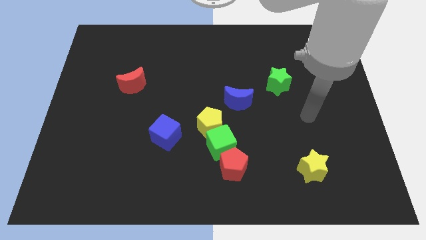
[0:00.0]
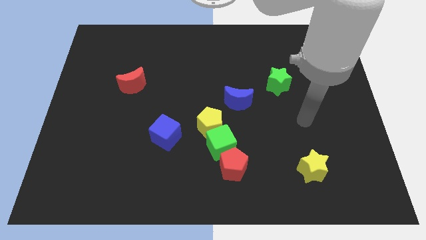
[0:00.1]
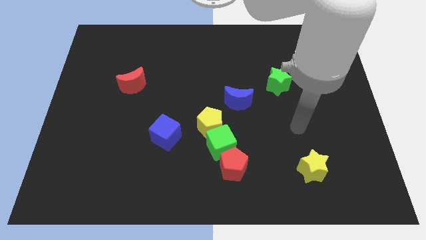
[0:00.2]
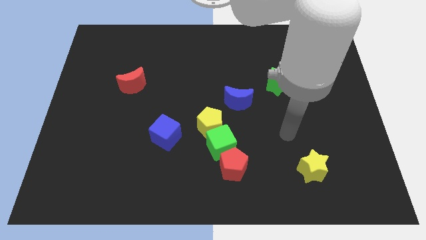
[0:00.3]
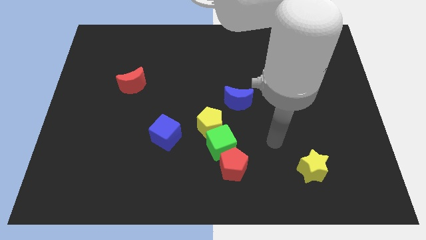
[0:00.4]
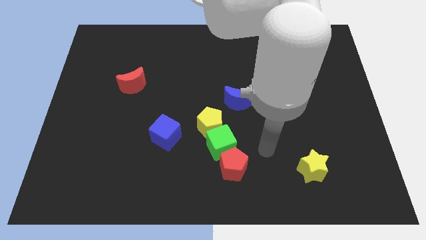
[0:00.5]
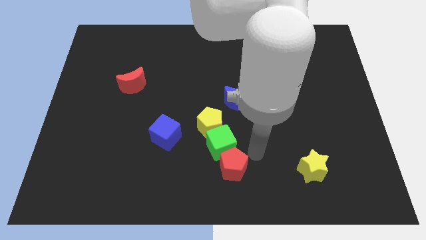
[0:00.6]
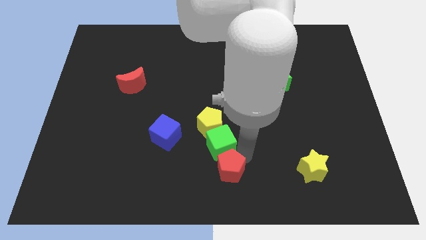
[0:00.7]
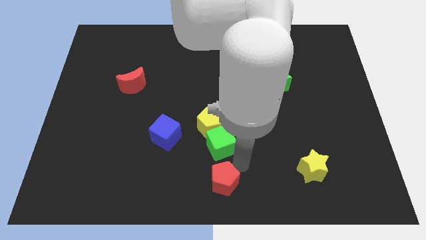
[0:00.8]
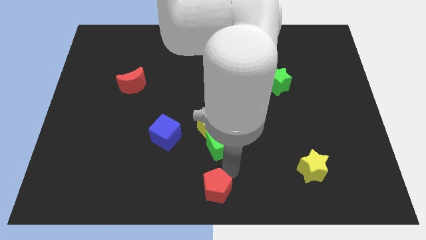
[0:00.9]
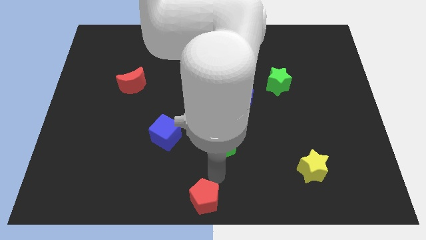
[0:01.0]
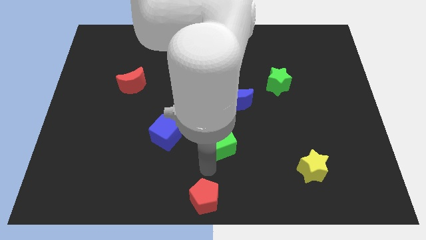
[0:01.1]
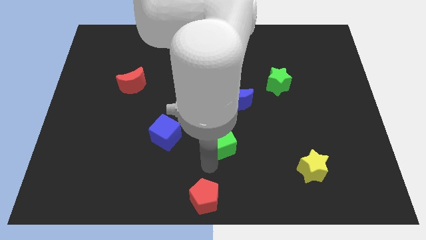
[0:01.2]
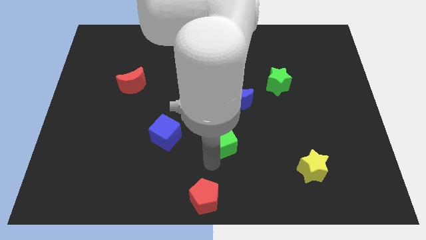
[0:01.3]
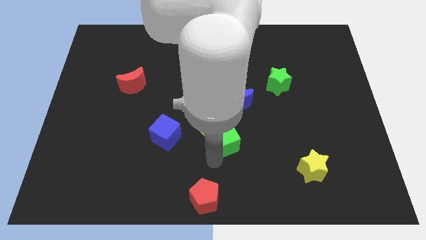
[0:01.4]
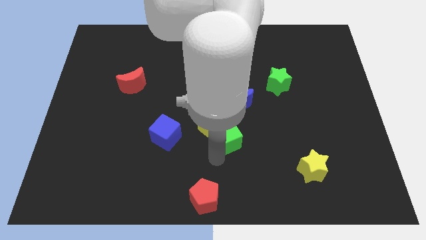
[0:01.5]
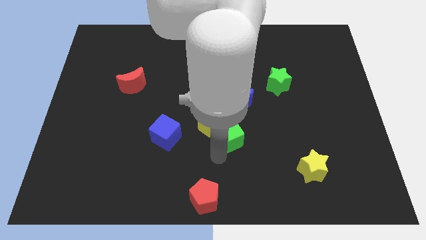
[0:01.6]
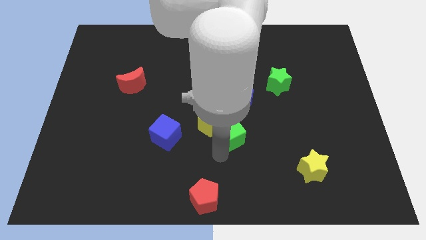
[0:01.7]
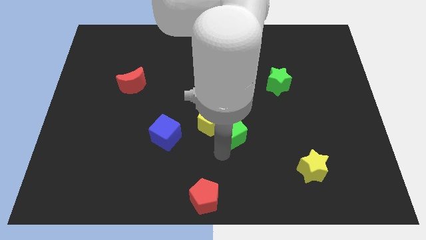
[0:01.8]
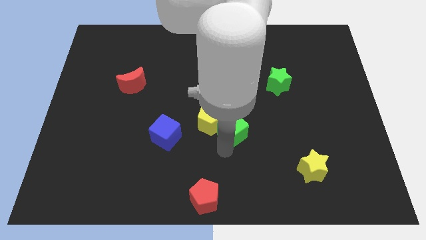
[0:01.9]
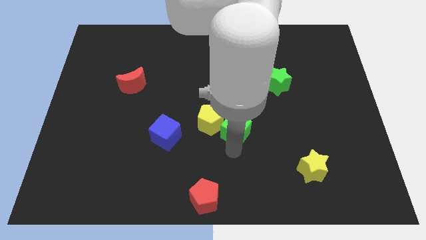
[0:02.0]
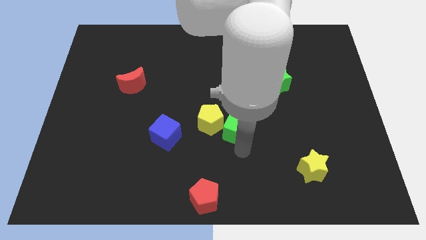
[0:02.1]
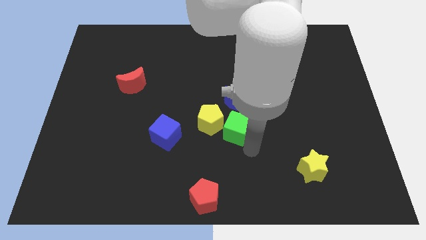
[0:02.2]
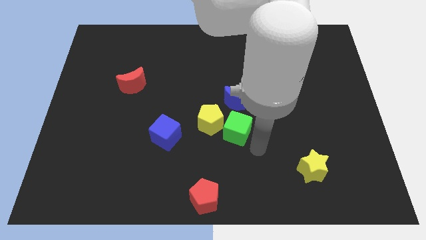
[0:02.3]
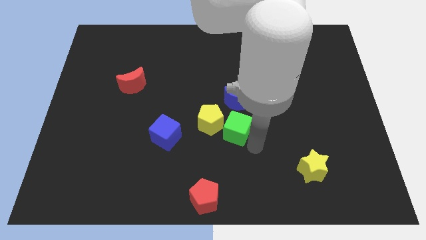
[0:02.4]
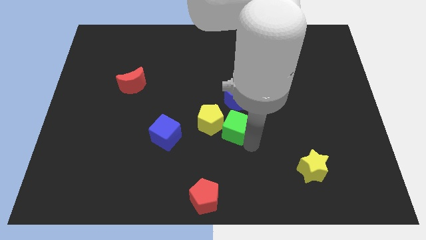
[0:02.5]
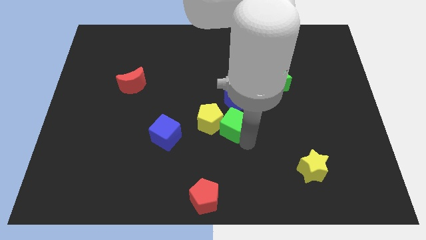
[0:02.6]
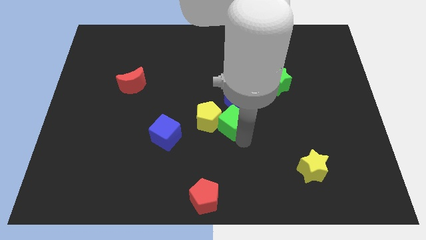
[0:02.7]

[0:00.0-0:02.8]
move the green cube away from the yellow pentagon and red pentagon

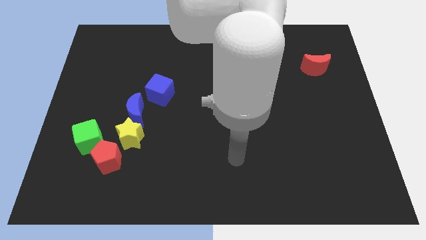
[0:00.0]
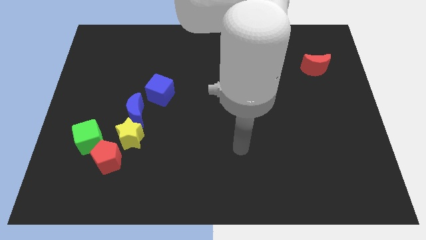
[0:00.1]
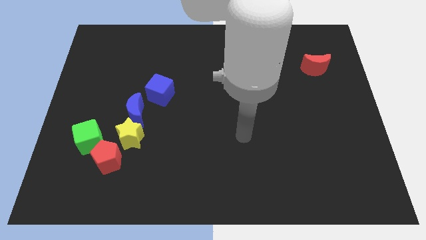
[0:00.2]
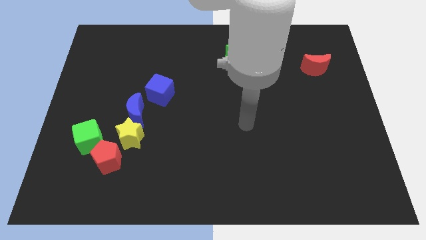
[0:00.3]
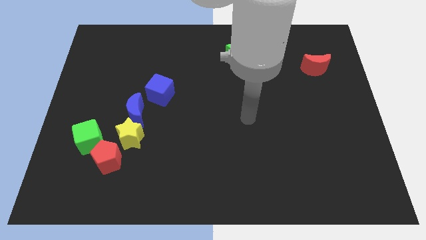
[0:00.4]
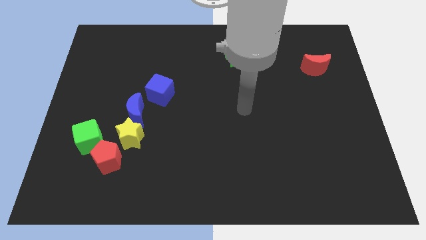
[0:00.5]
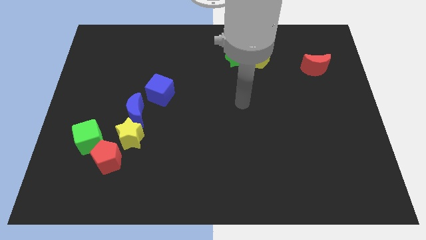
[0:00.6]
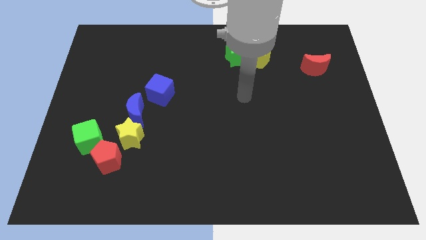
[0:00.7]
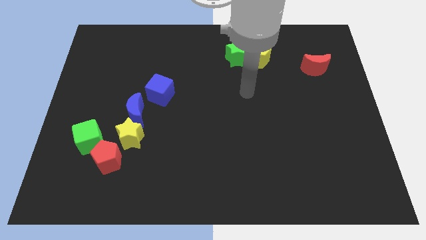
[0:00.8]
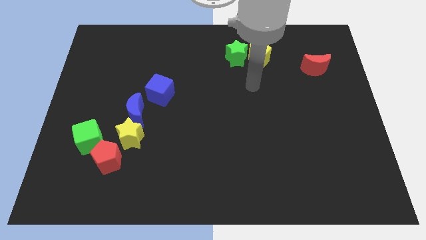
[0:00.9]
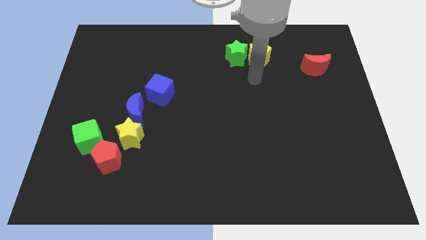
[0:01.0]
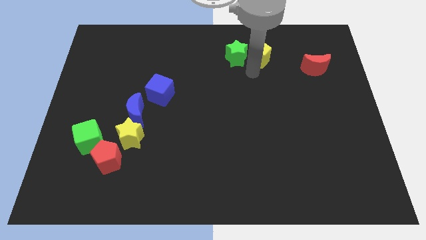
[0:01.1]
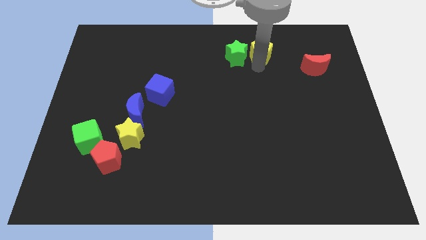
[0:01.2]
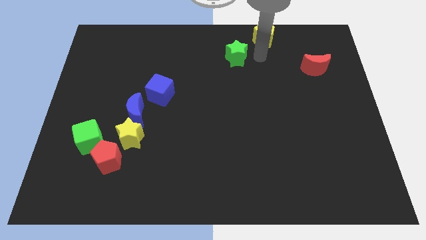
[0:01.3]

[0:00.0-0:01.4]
move the green star away from the yellow pentagon

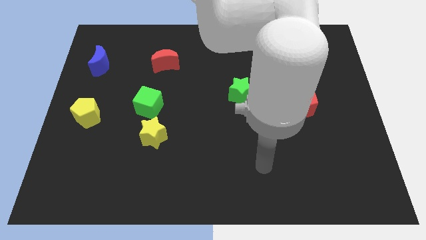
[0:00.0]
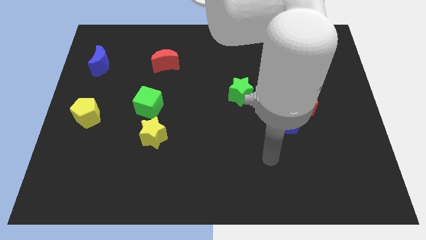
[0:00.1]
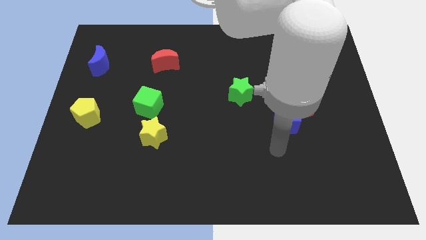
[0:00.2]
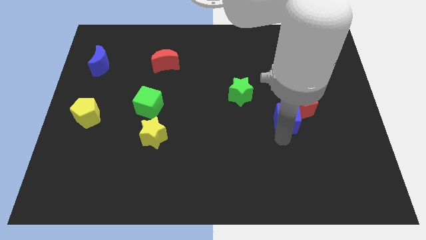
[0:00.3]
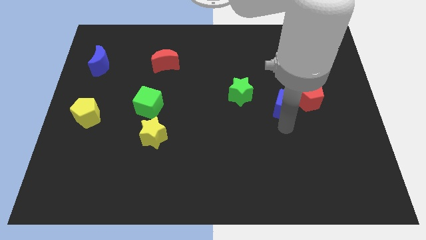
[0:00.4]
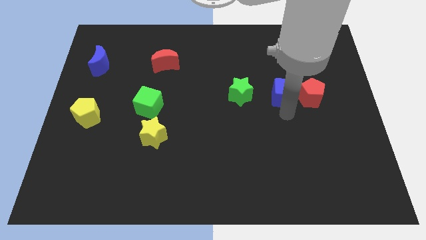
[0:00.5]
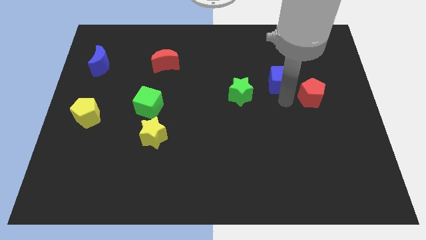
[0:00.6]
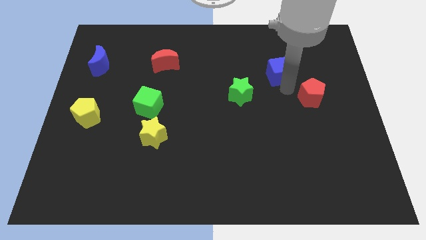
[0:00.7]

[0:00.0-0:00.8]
pull the red pentagon apart from the blue cube

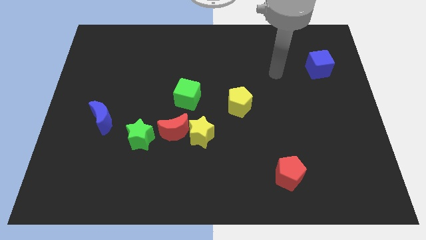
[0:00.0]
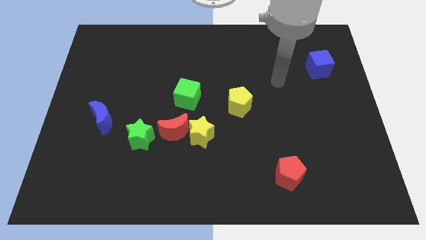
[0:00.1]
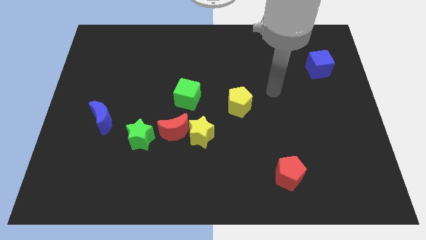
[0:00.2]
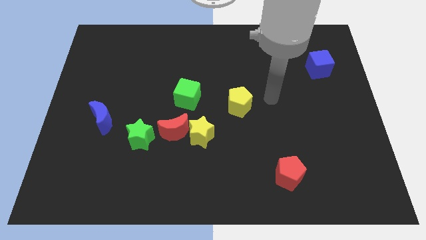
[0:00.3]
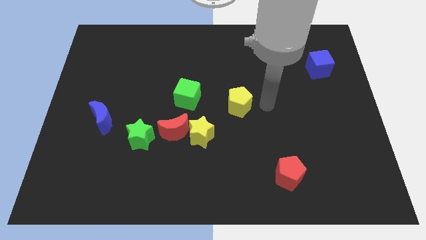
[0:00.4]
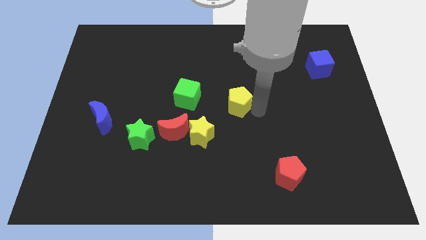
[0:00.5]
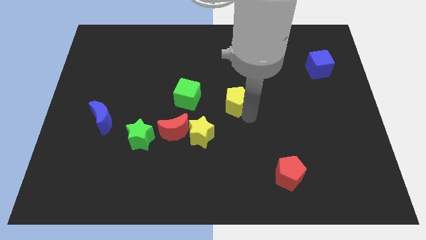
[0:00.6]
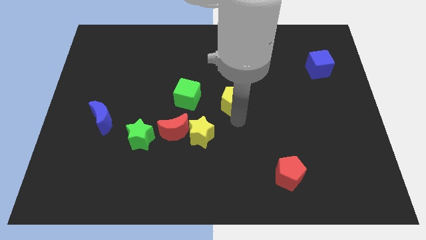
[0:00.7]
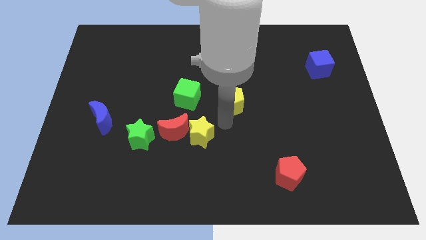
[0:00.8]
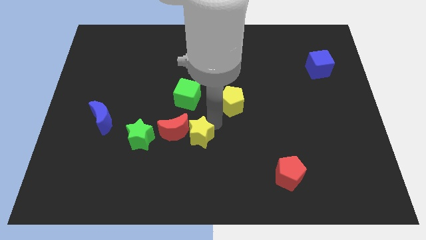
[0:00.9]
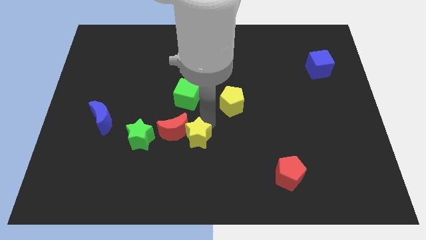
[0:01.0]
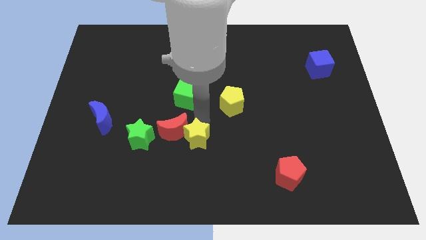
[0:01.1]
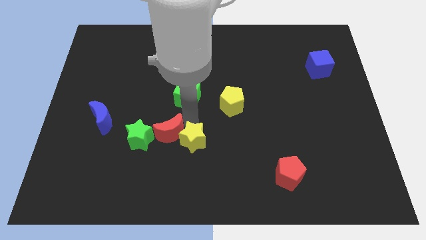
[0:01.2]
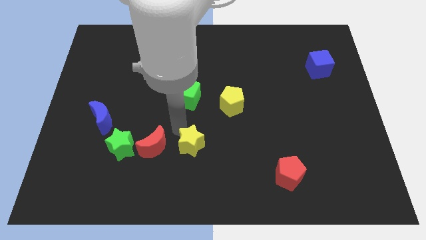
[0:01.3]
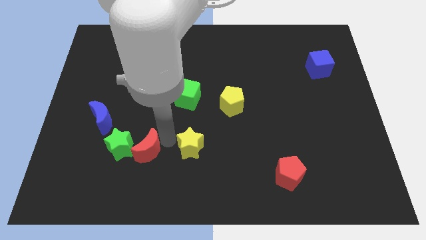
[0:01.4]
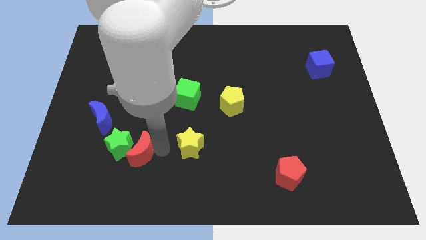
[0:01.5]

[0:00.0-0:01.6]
move the yellow star away from the red moon

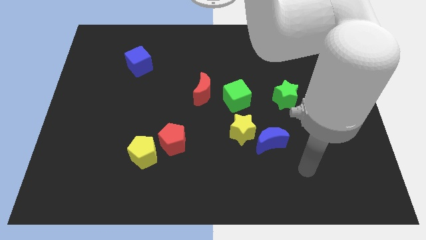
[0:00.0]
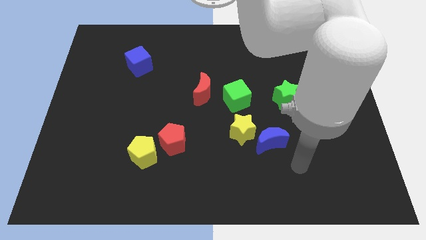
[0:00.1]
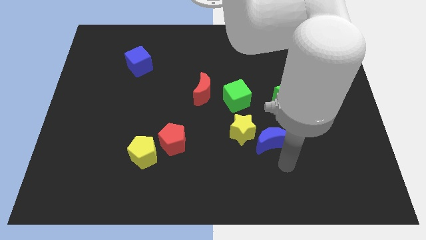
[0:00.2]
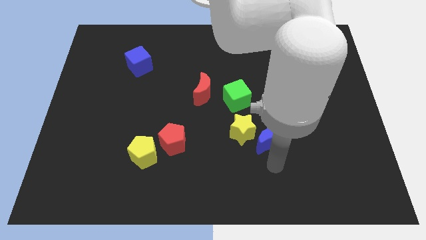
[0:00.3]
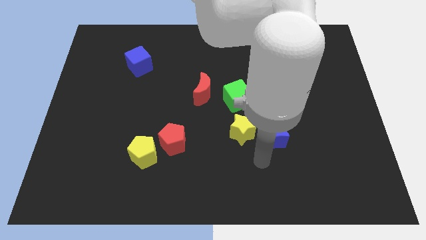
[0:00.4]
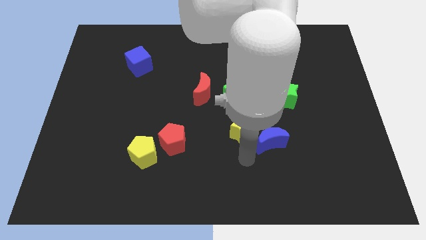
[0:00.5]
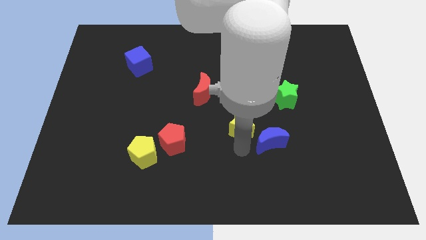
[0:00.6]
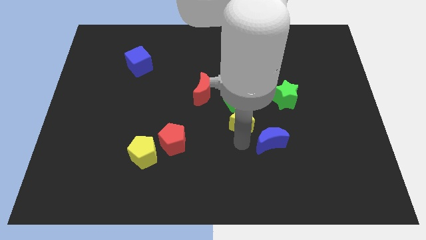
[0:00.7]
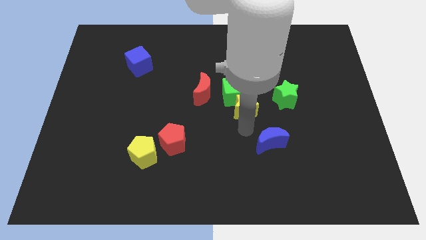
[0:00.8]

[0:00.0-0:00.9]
move the blue moon away from the yellow star

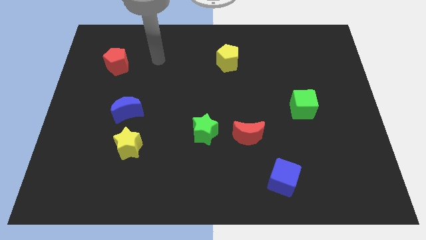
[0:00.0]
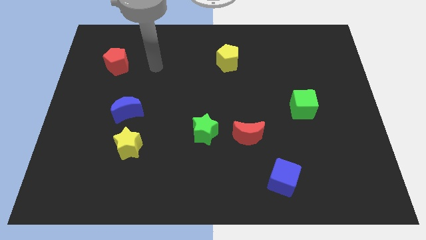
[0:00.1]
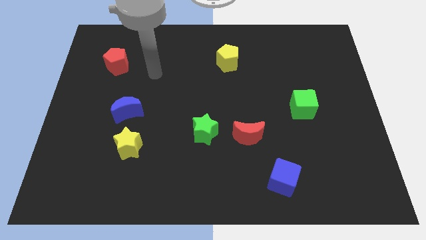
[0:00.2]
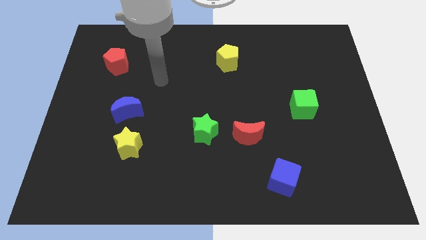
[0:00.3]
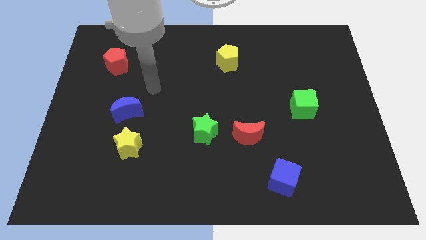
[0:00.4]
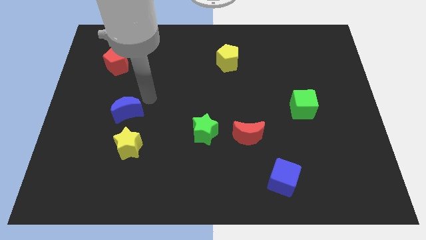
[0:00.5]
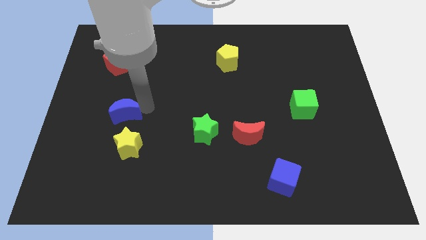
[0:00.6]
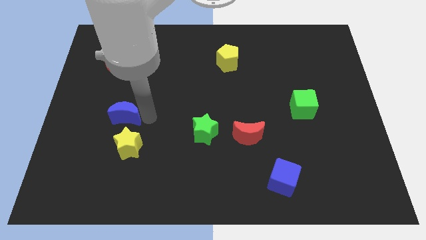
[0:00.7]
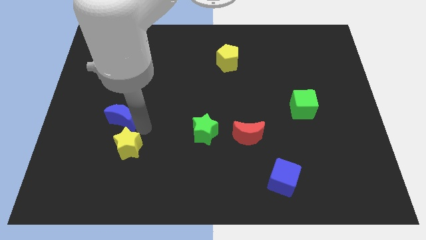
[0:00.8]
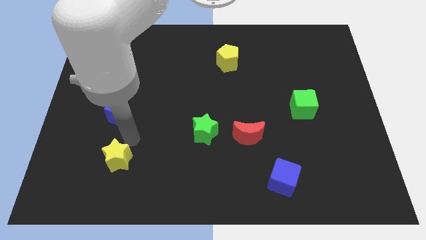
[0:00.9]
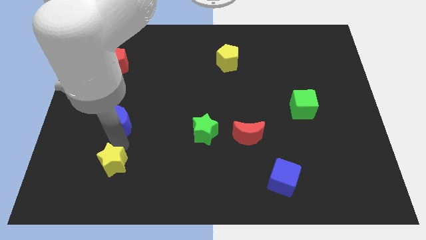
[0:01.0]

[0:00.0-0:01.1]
separate the blue moon from the yellow star

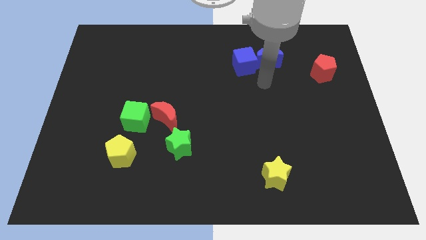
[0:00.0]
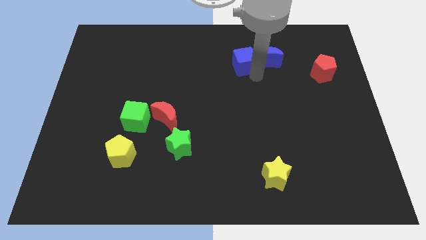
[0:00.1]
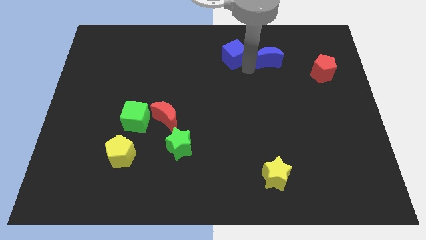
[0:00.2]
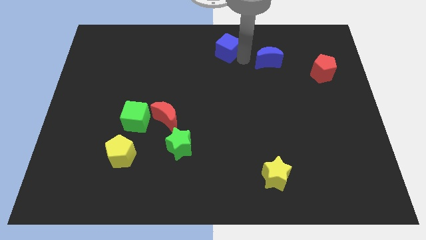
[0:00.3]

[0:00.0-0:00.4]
pull the blue moon apart from the blue cube

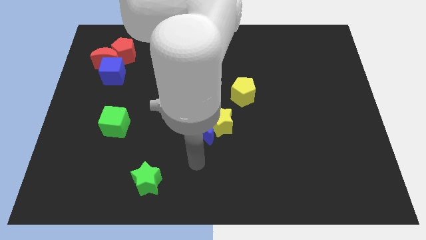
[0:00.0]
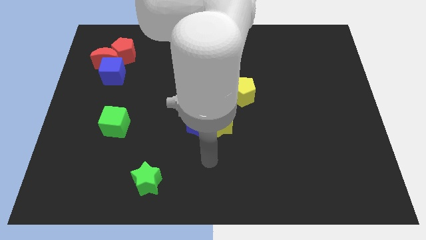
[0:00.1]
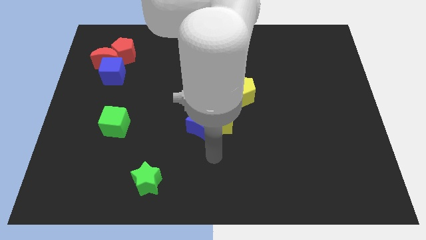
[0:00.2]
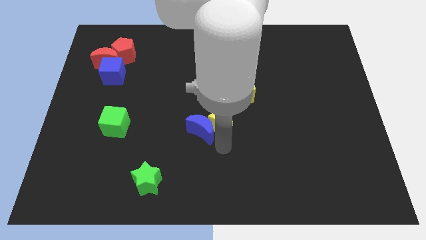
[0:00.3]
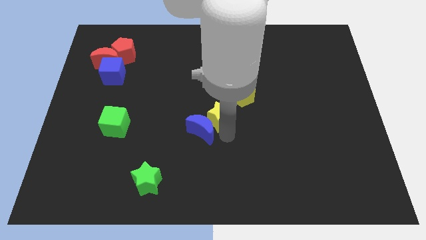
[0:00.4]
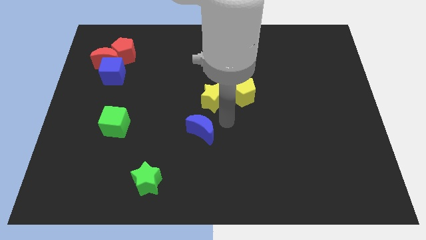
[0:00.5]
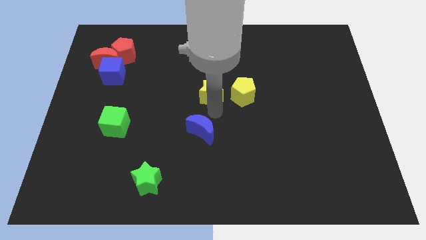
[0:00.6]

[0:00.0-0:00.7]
pull the blue moon apart from the yellow star
